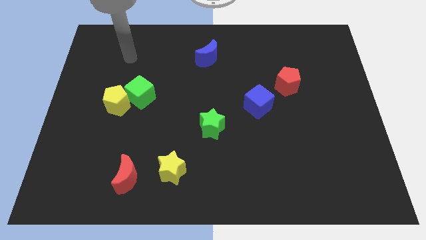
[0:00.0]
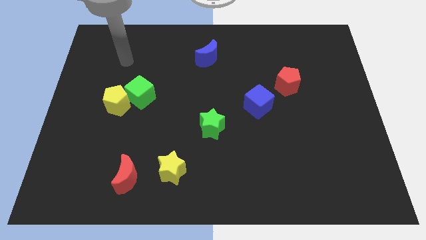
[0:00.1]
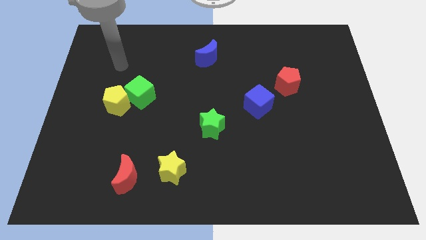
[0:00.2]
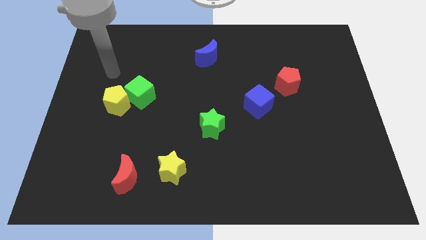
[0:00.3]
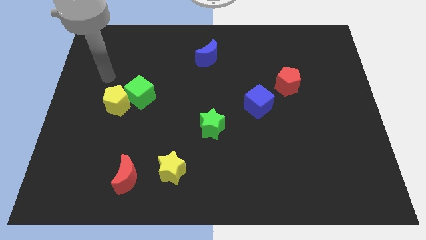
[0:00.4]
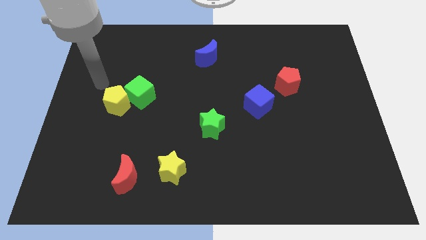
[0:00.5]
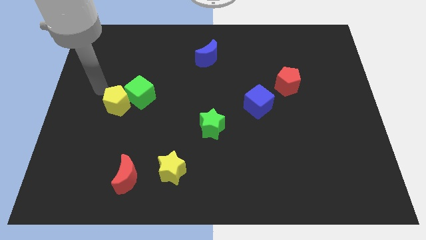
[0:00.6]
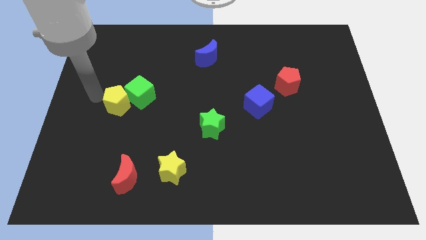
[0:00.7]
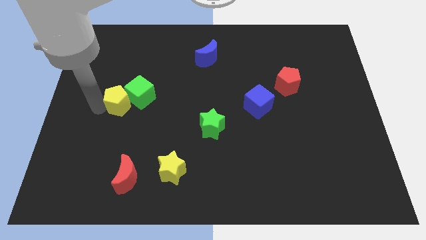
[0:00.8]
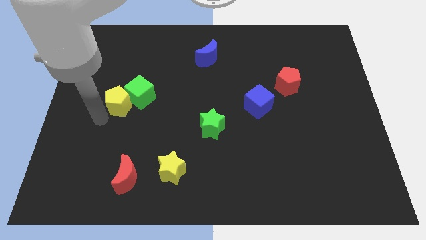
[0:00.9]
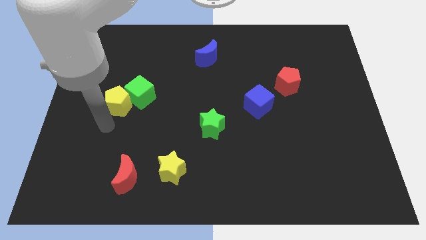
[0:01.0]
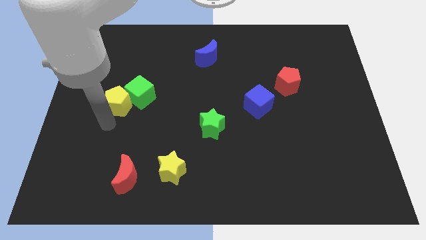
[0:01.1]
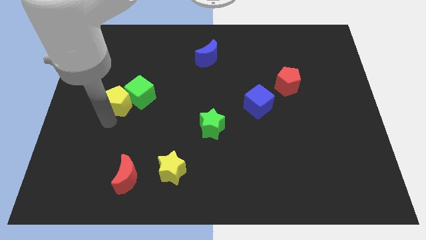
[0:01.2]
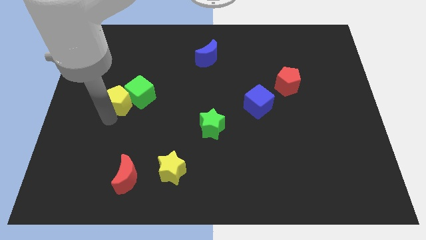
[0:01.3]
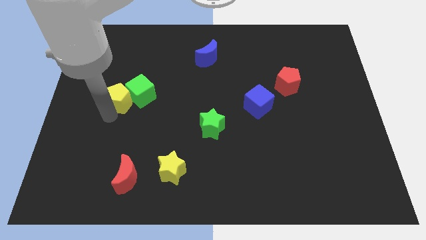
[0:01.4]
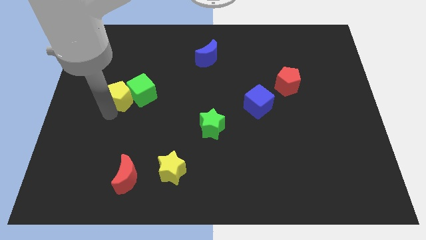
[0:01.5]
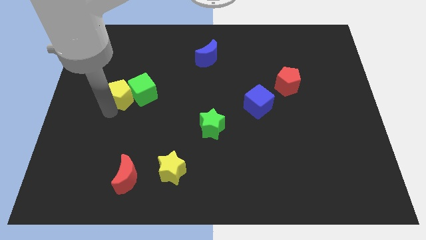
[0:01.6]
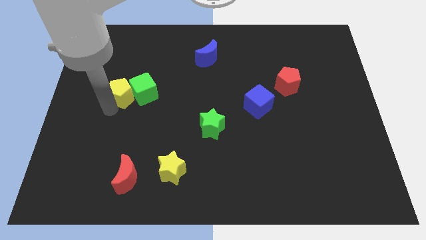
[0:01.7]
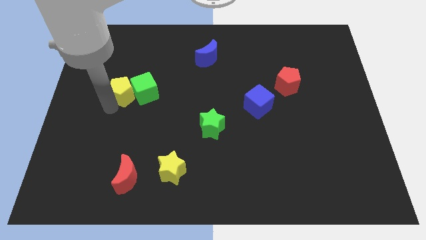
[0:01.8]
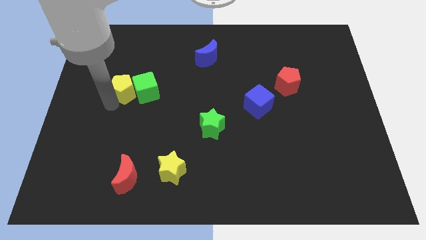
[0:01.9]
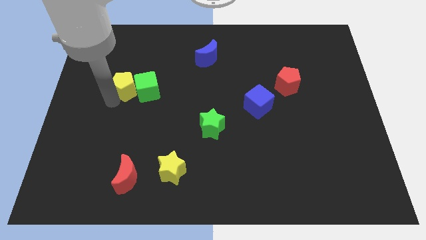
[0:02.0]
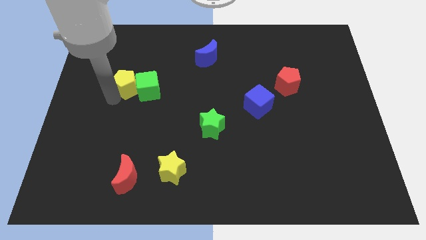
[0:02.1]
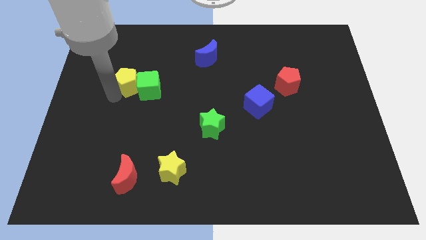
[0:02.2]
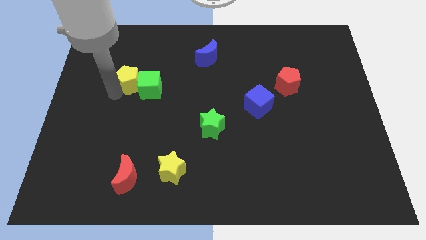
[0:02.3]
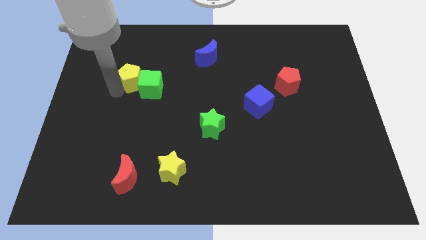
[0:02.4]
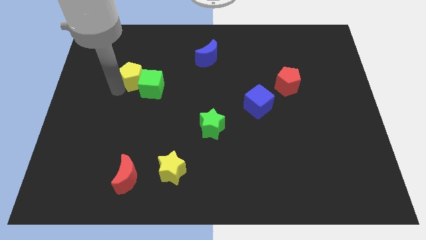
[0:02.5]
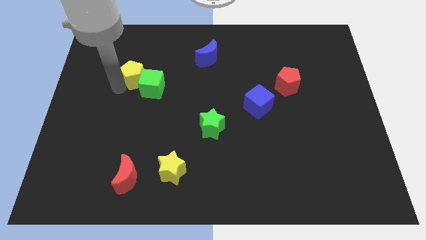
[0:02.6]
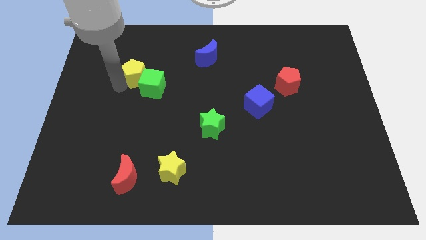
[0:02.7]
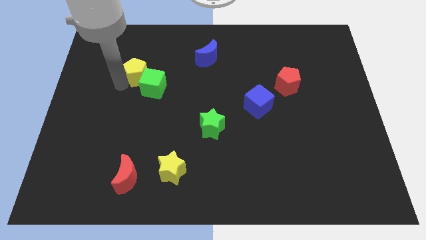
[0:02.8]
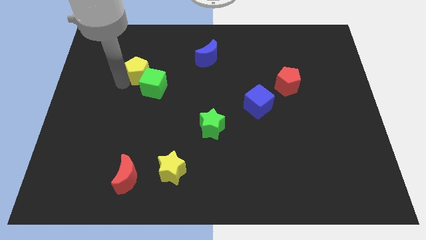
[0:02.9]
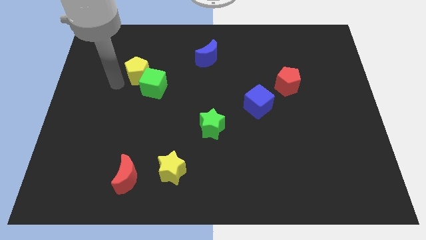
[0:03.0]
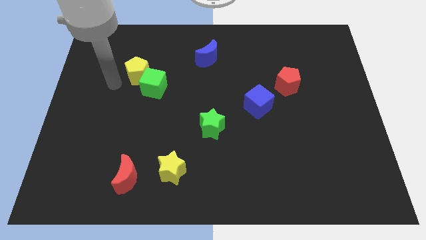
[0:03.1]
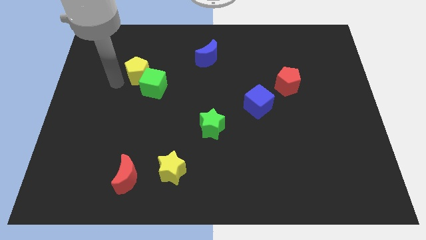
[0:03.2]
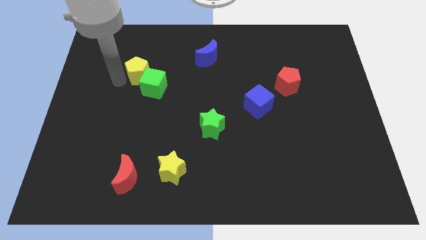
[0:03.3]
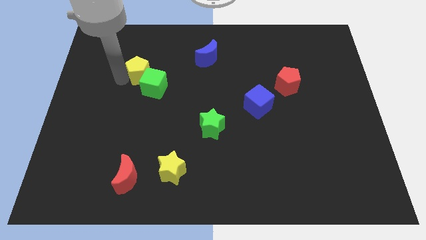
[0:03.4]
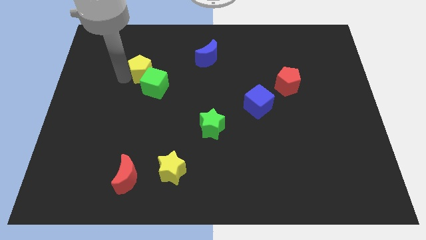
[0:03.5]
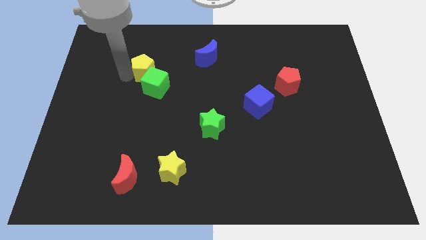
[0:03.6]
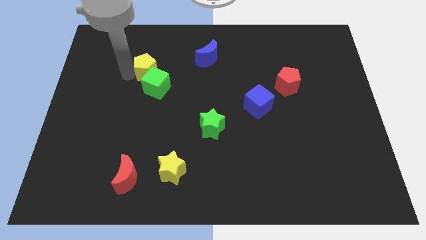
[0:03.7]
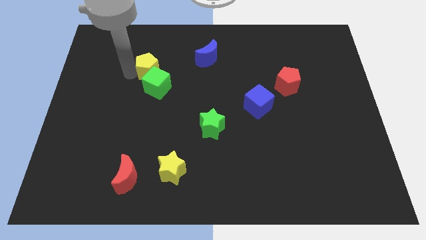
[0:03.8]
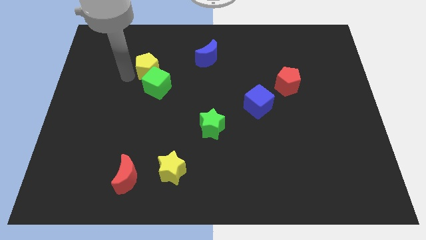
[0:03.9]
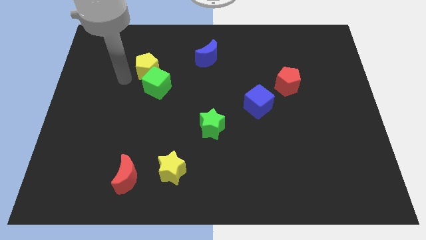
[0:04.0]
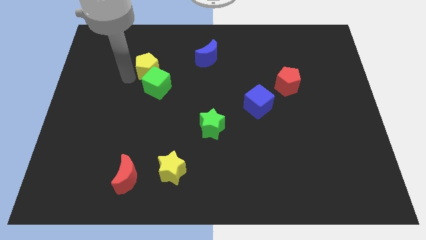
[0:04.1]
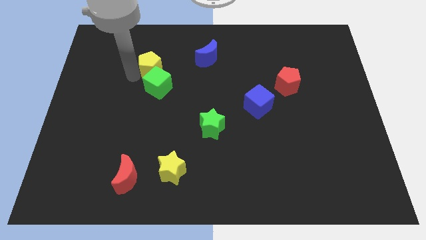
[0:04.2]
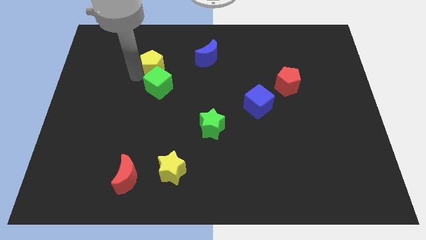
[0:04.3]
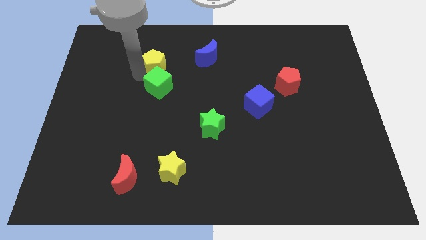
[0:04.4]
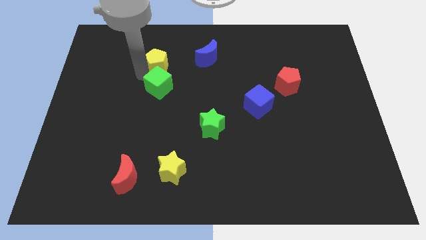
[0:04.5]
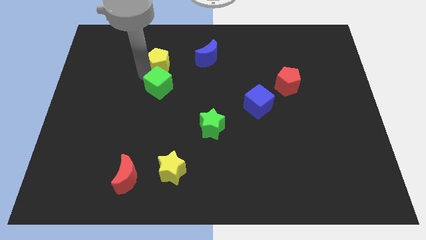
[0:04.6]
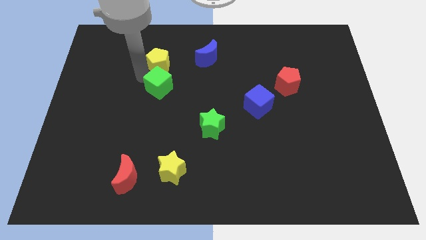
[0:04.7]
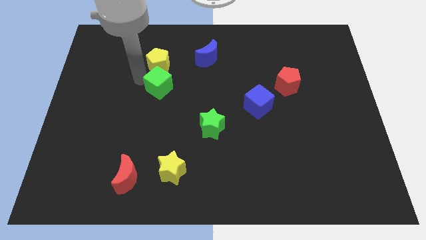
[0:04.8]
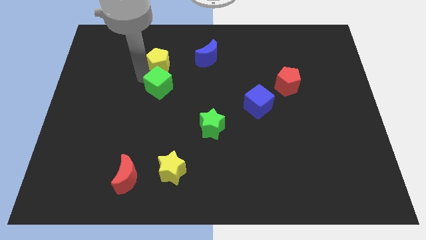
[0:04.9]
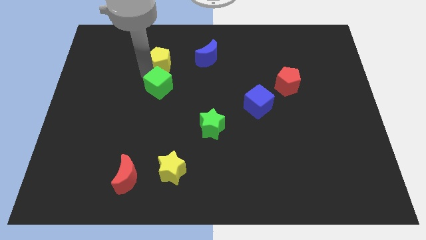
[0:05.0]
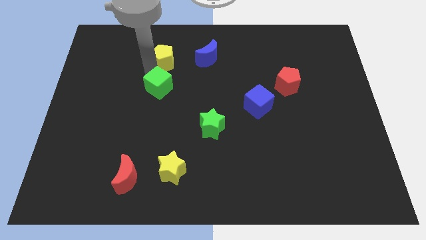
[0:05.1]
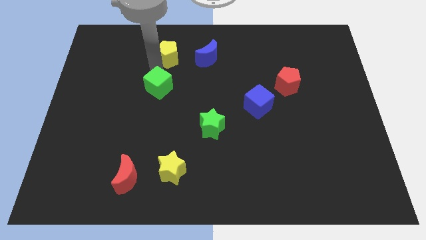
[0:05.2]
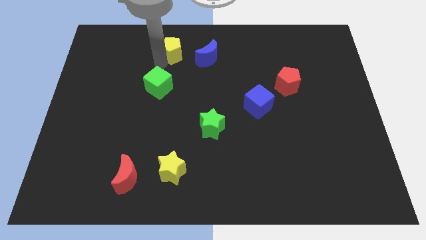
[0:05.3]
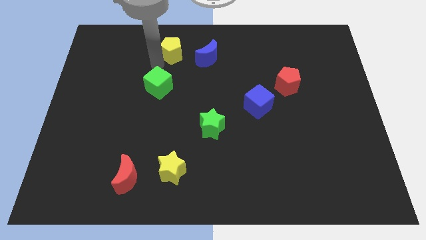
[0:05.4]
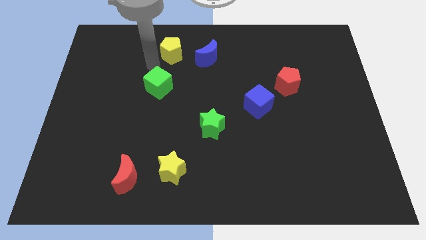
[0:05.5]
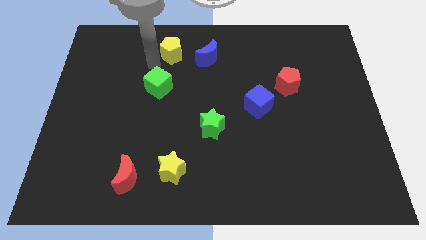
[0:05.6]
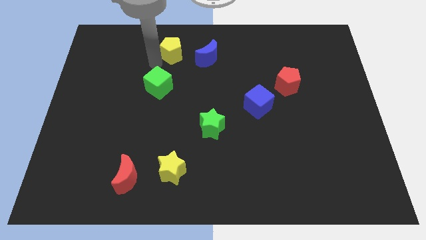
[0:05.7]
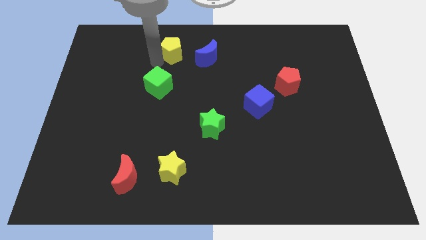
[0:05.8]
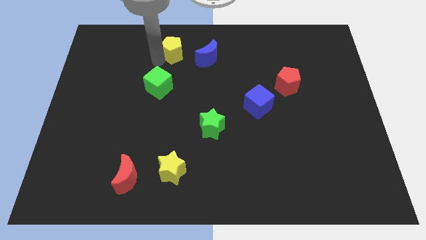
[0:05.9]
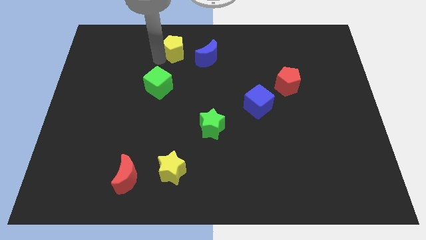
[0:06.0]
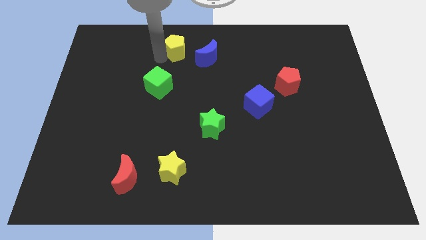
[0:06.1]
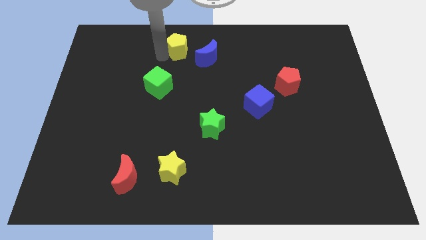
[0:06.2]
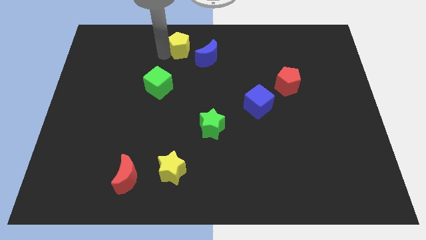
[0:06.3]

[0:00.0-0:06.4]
put the yellow pentagon to the top side

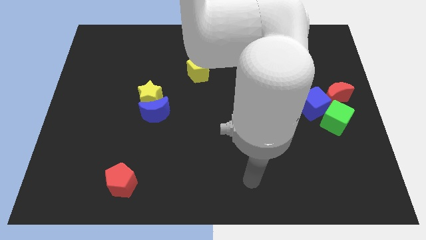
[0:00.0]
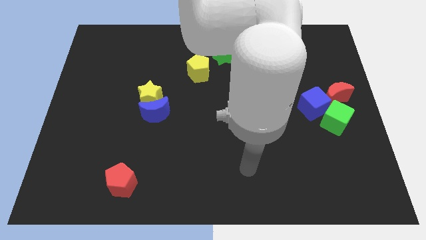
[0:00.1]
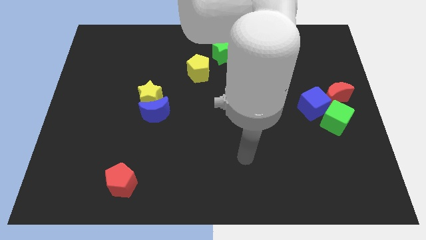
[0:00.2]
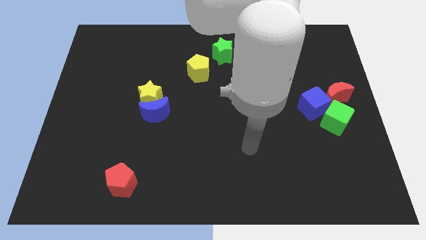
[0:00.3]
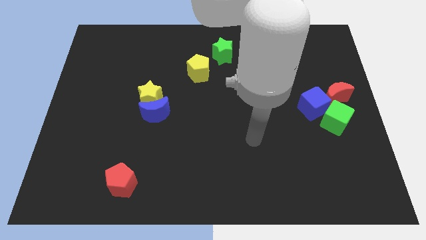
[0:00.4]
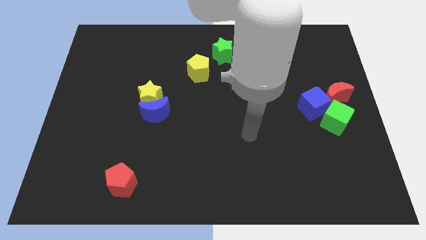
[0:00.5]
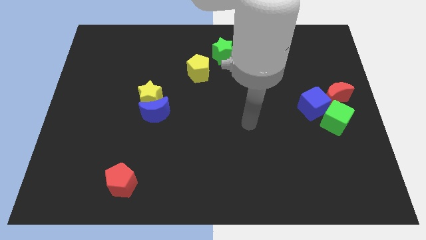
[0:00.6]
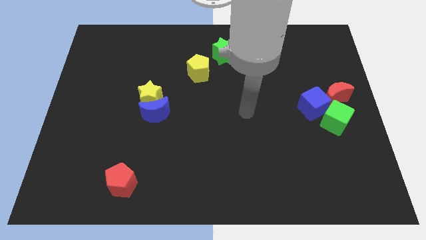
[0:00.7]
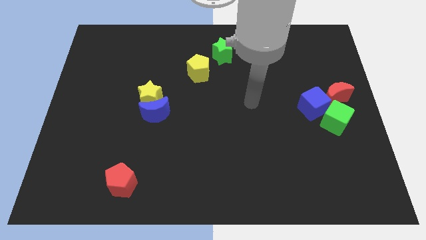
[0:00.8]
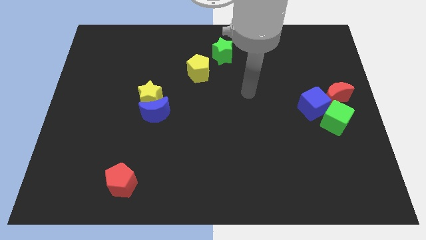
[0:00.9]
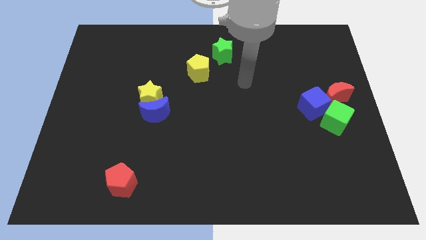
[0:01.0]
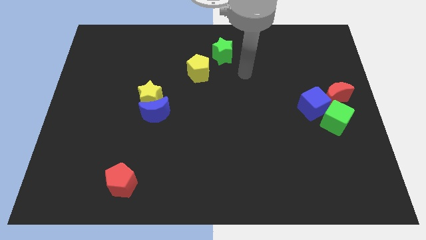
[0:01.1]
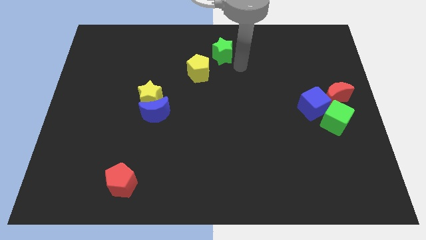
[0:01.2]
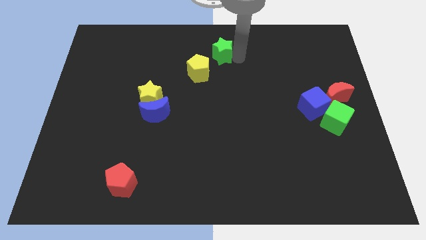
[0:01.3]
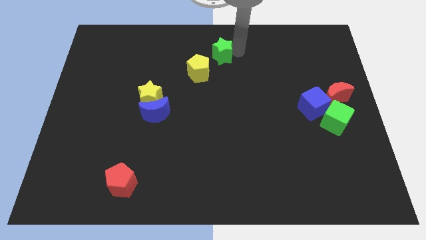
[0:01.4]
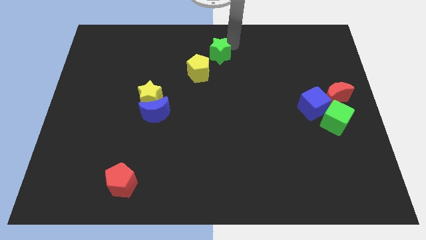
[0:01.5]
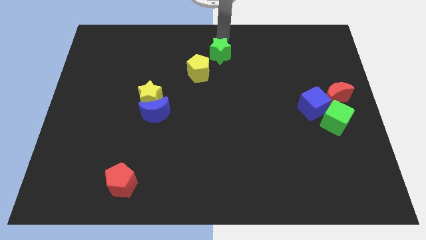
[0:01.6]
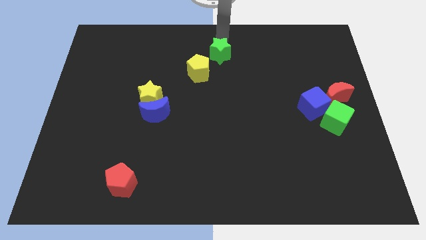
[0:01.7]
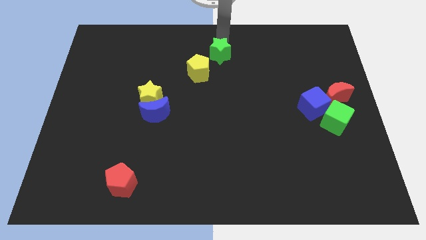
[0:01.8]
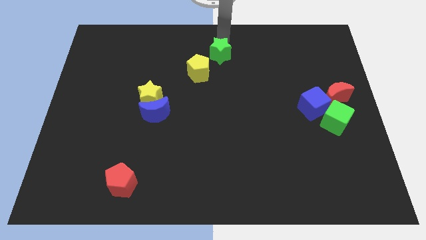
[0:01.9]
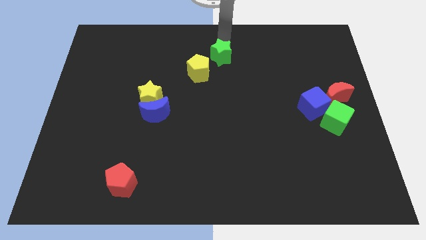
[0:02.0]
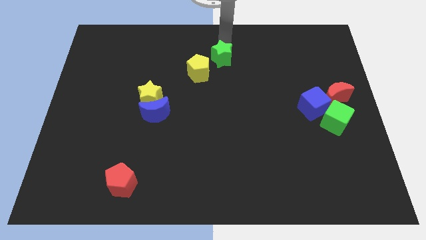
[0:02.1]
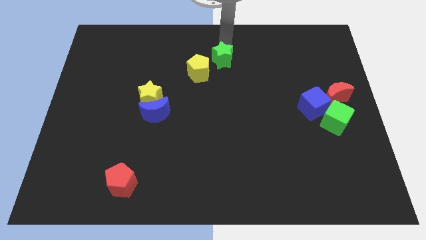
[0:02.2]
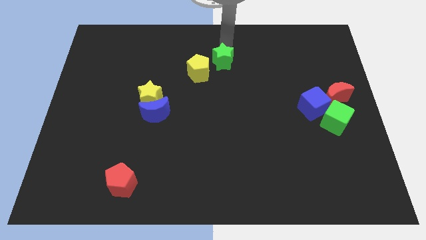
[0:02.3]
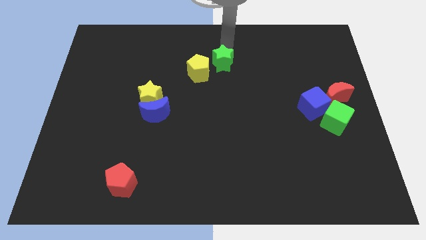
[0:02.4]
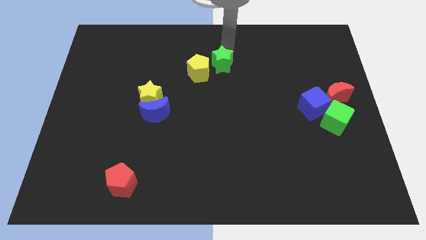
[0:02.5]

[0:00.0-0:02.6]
push the green star to the middle of the board
